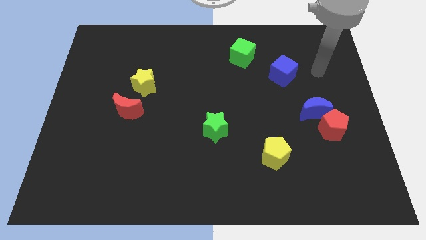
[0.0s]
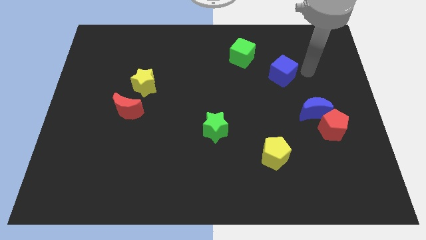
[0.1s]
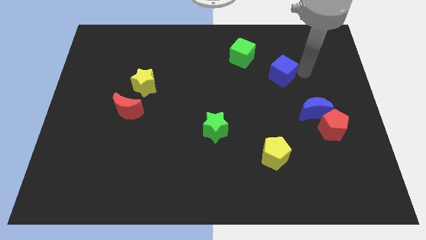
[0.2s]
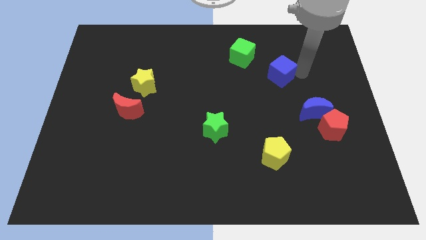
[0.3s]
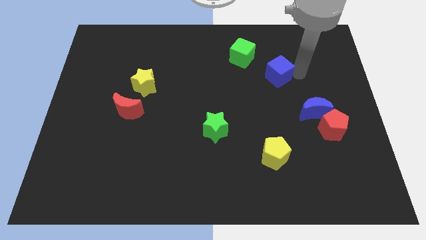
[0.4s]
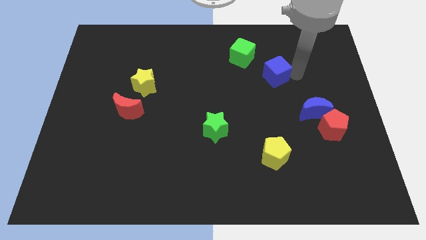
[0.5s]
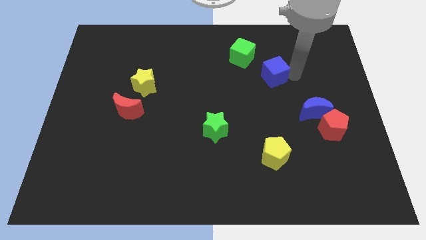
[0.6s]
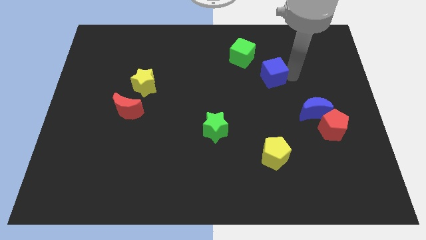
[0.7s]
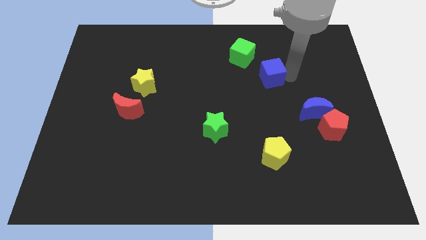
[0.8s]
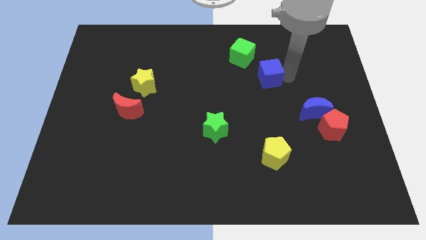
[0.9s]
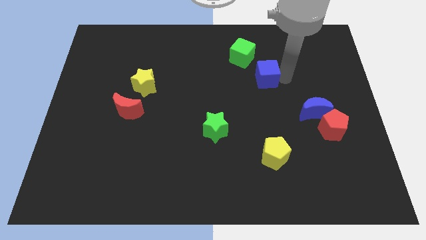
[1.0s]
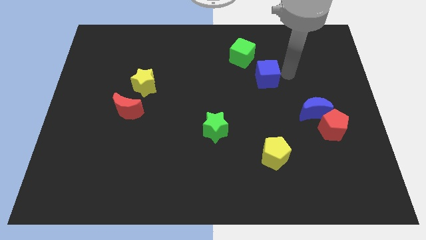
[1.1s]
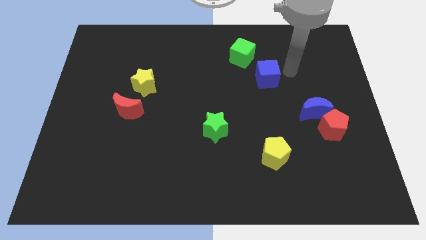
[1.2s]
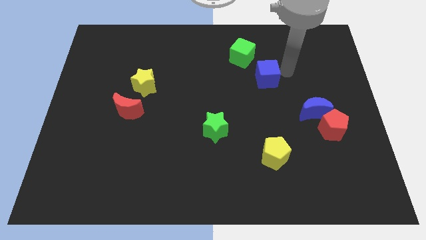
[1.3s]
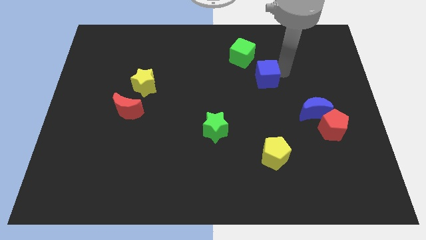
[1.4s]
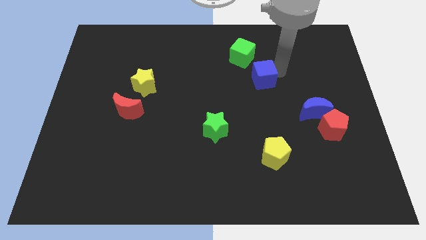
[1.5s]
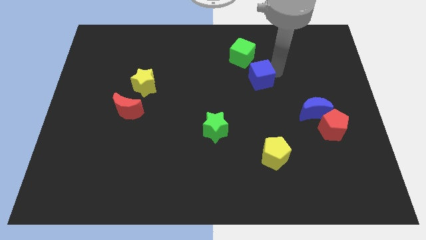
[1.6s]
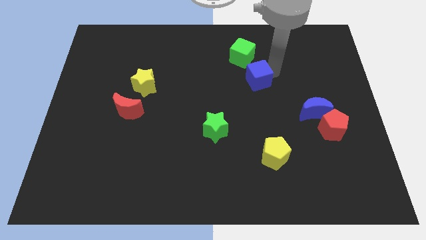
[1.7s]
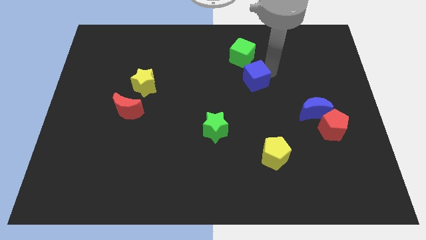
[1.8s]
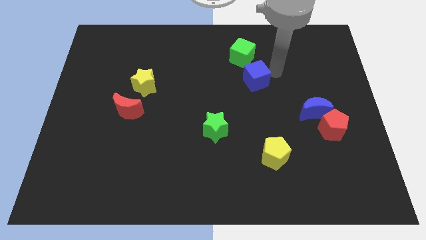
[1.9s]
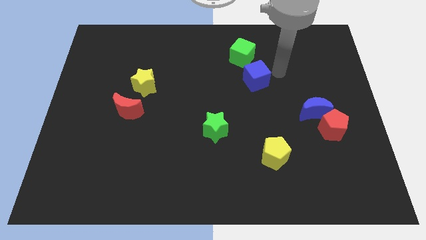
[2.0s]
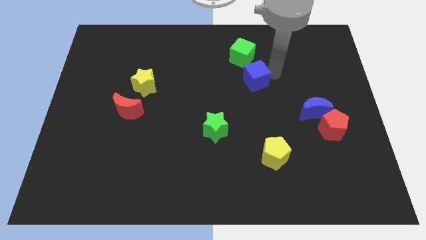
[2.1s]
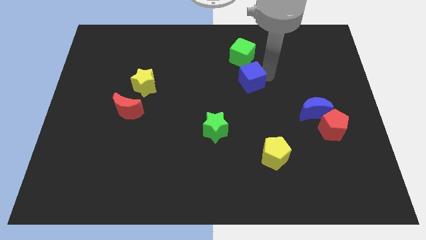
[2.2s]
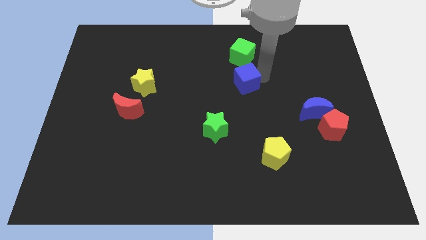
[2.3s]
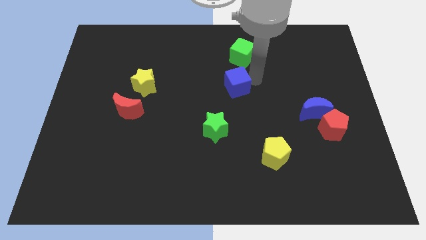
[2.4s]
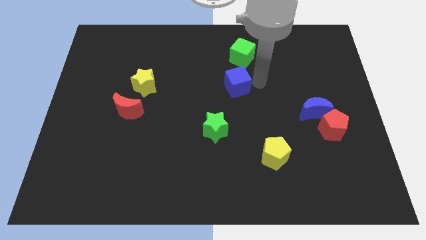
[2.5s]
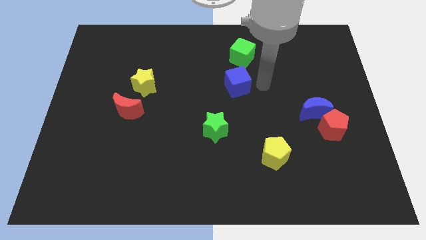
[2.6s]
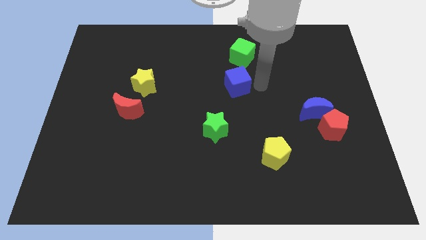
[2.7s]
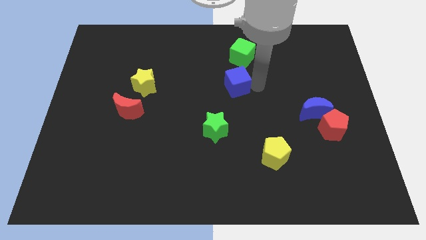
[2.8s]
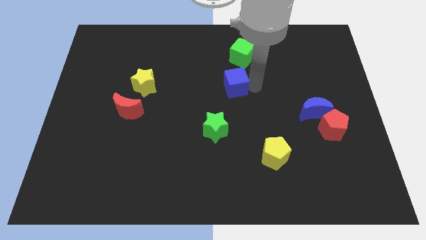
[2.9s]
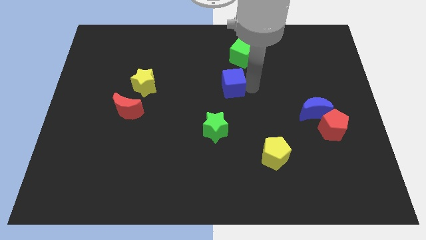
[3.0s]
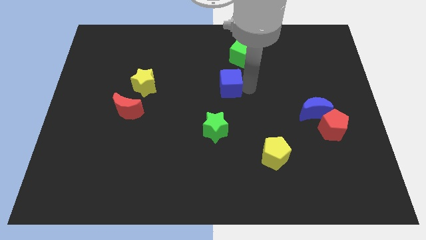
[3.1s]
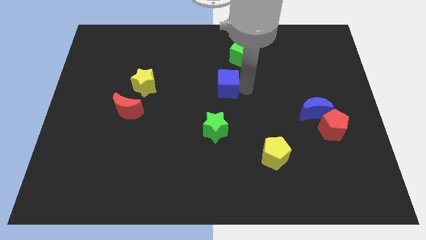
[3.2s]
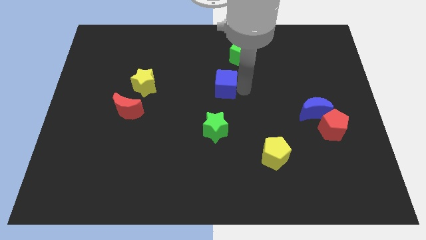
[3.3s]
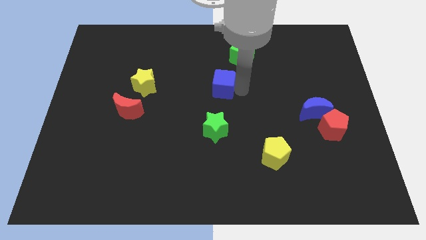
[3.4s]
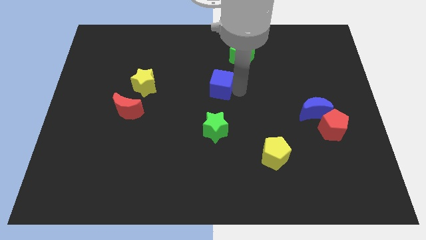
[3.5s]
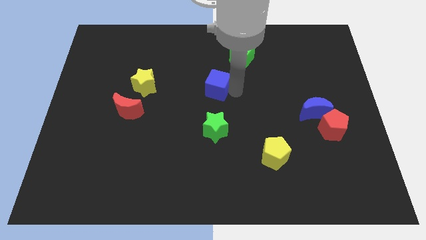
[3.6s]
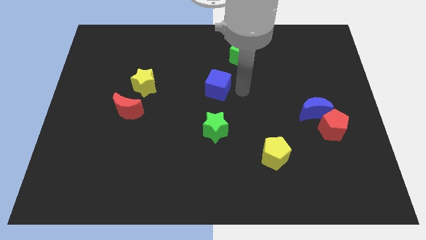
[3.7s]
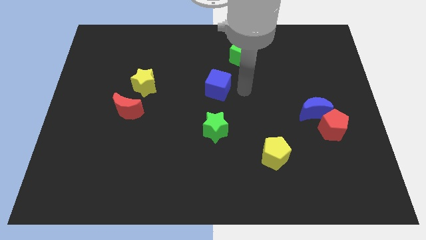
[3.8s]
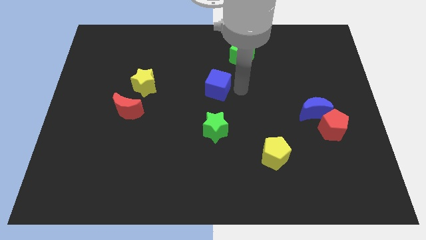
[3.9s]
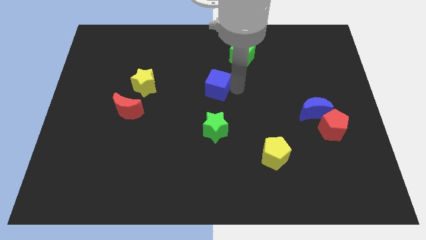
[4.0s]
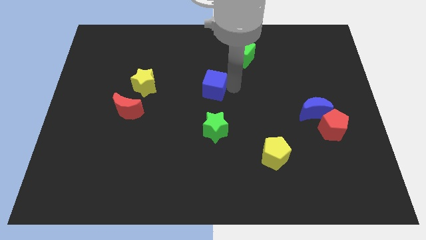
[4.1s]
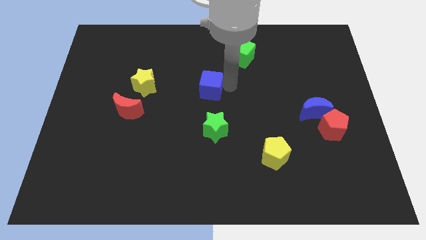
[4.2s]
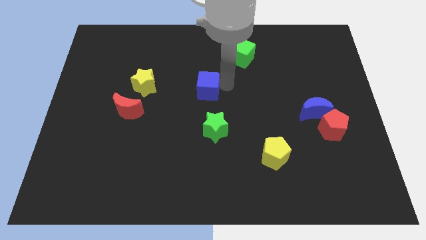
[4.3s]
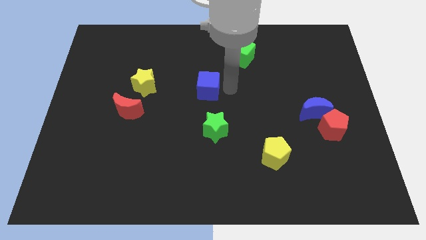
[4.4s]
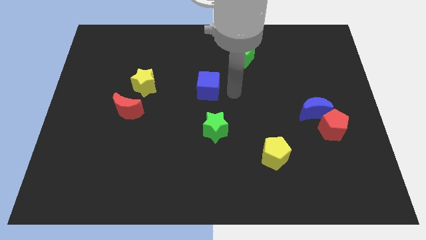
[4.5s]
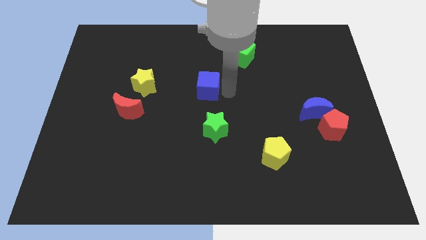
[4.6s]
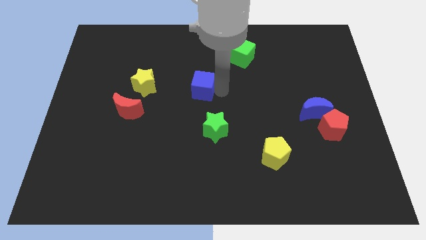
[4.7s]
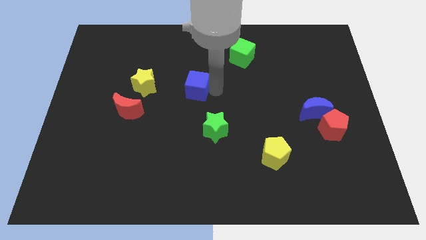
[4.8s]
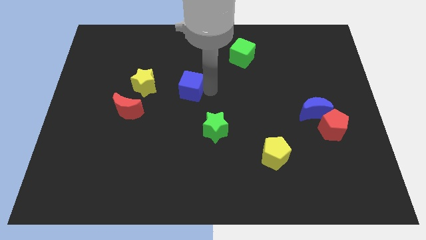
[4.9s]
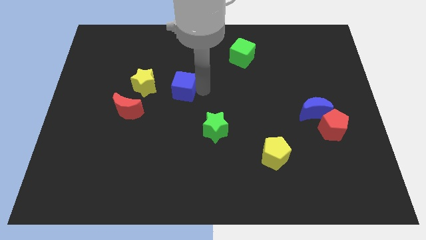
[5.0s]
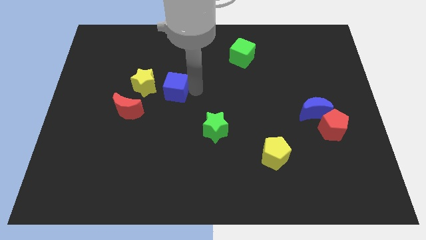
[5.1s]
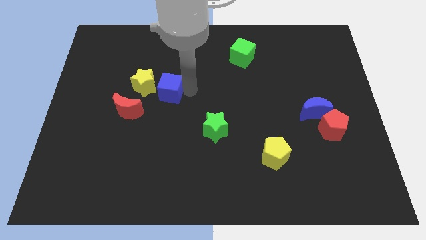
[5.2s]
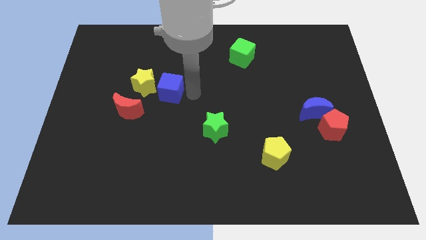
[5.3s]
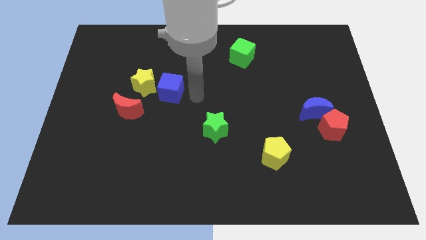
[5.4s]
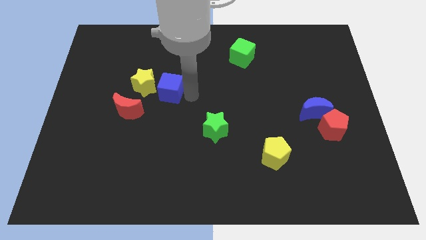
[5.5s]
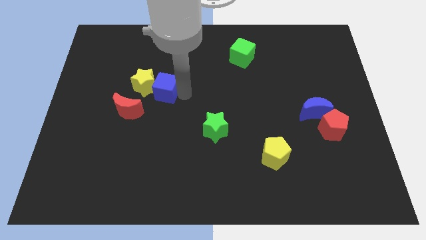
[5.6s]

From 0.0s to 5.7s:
put the blue cube close to the yellow star

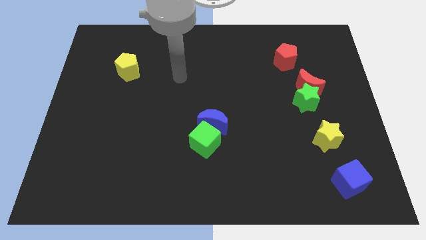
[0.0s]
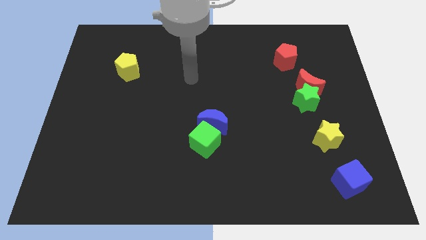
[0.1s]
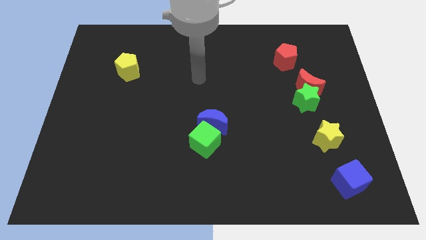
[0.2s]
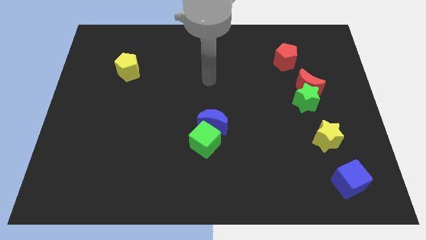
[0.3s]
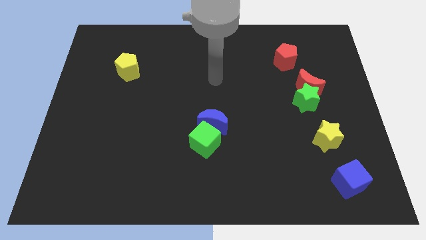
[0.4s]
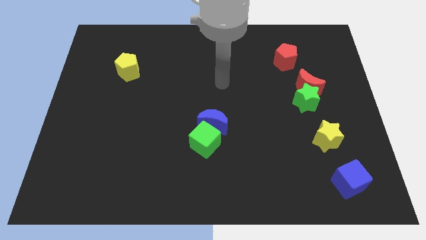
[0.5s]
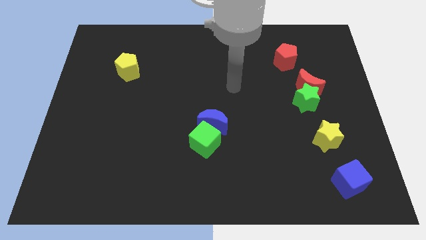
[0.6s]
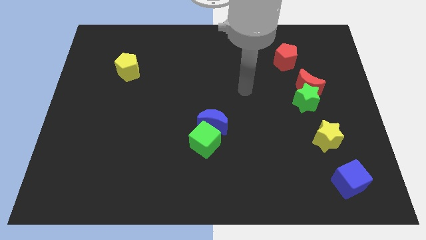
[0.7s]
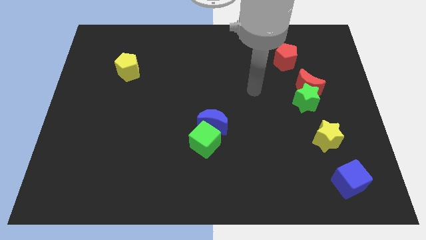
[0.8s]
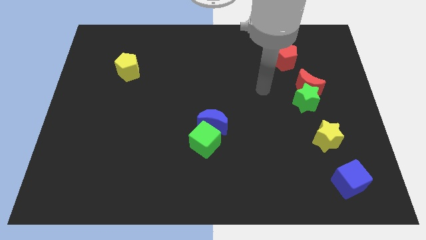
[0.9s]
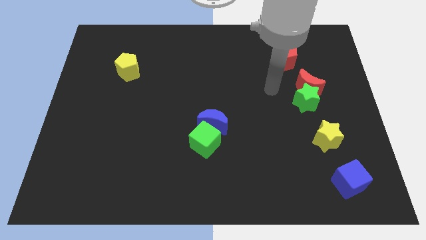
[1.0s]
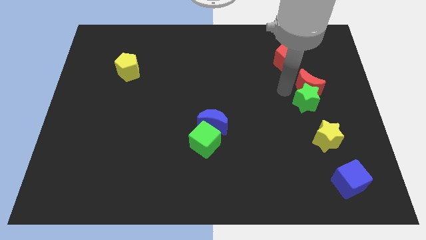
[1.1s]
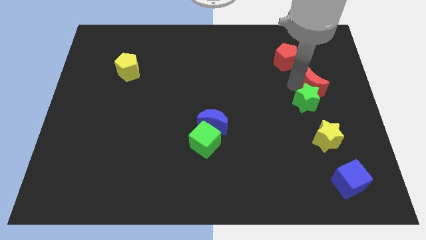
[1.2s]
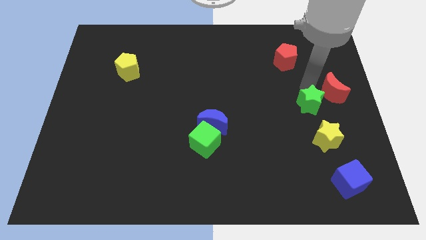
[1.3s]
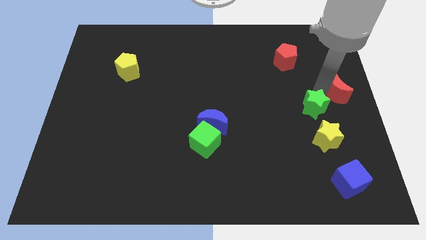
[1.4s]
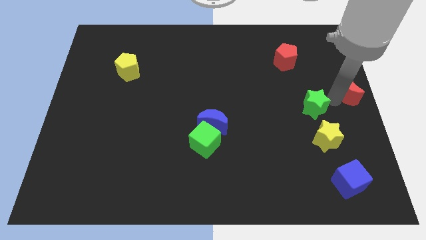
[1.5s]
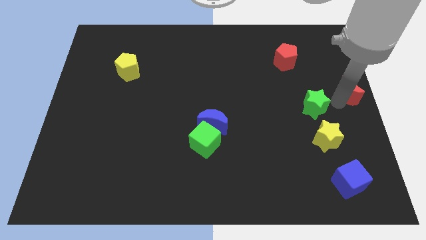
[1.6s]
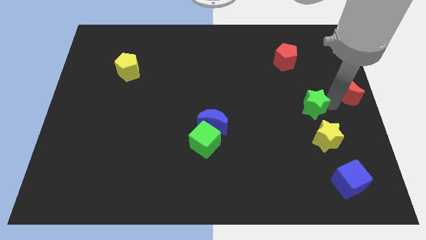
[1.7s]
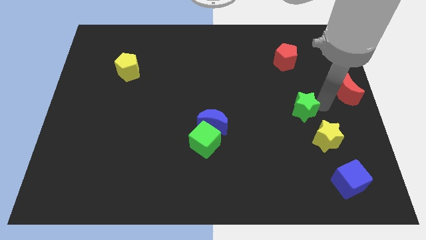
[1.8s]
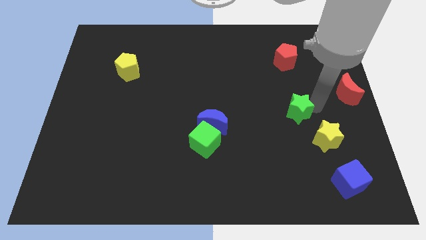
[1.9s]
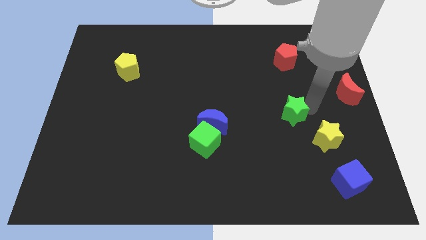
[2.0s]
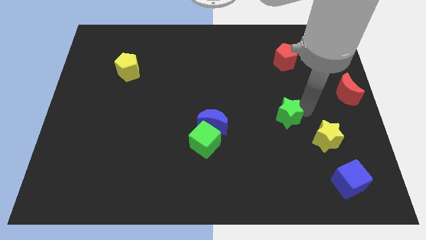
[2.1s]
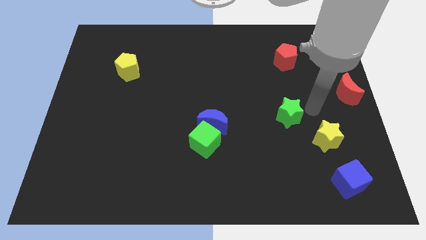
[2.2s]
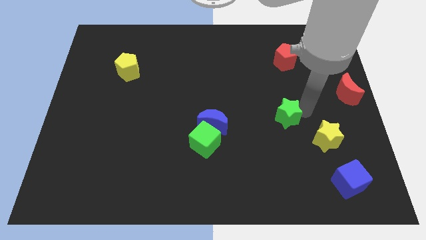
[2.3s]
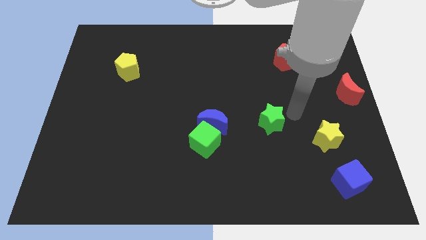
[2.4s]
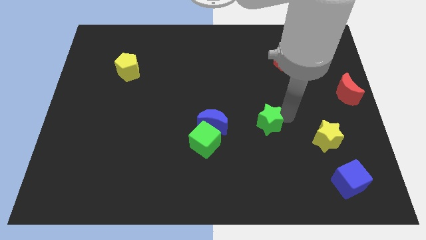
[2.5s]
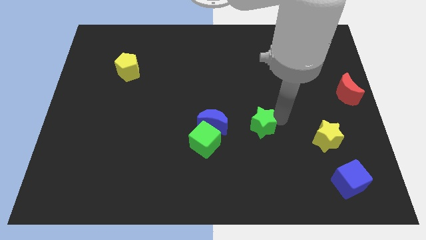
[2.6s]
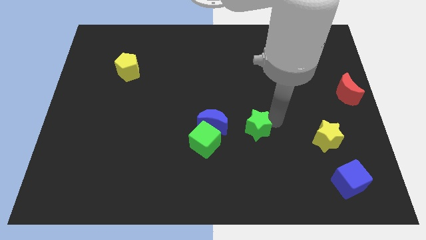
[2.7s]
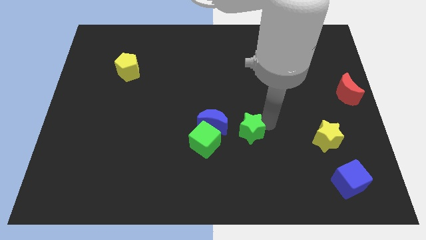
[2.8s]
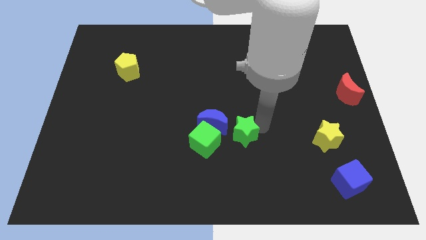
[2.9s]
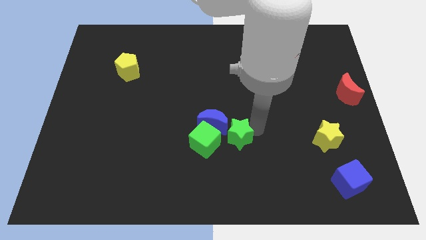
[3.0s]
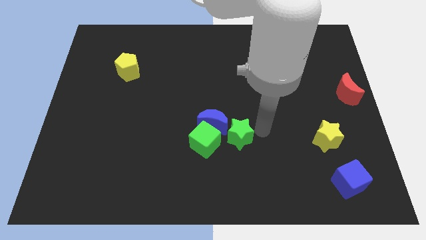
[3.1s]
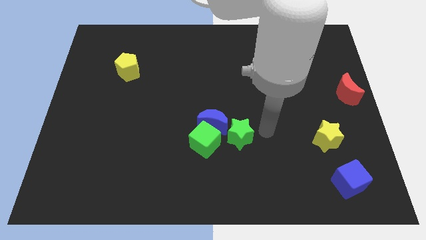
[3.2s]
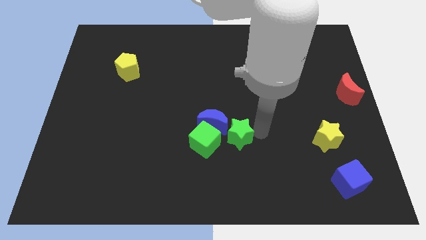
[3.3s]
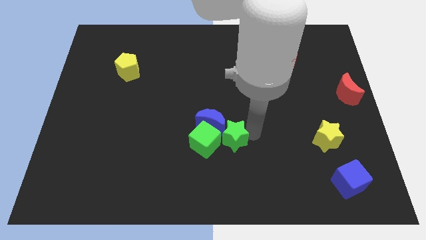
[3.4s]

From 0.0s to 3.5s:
put the green star towards the green cube
